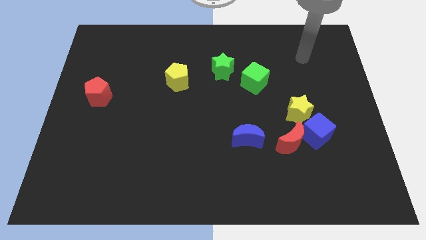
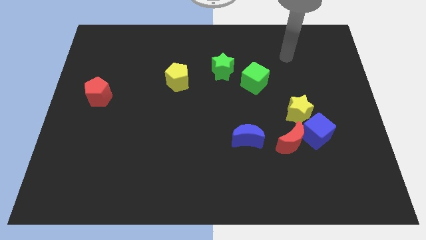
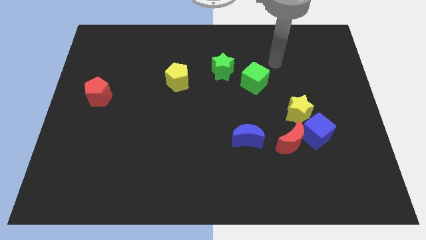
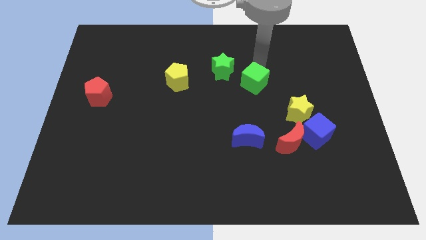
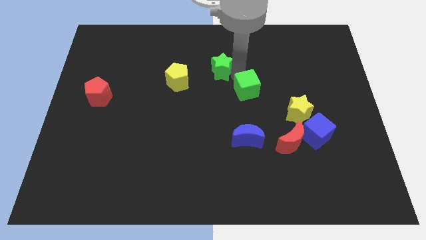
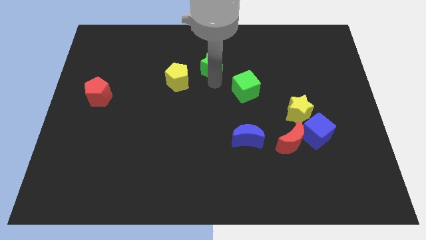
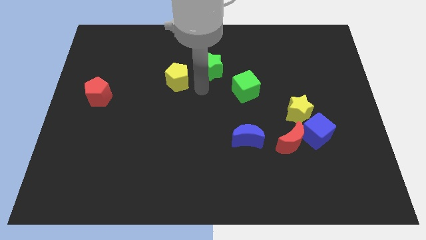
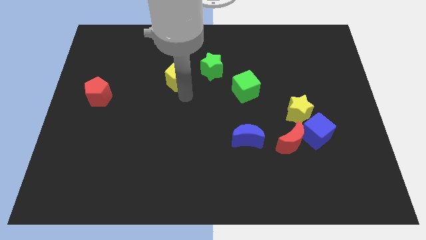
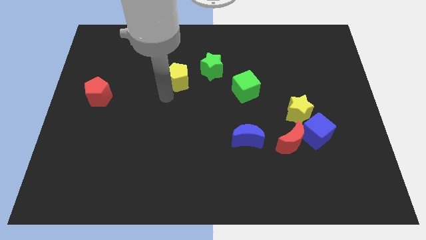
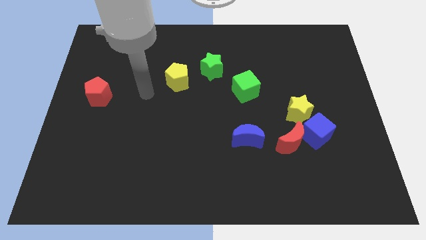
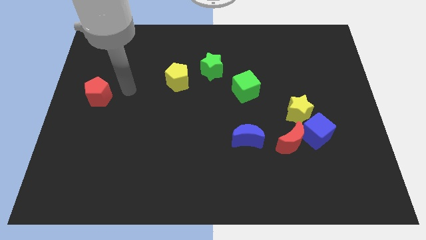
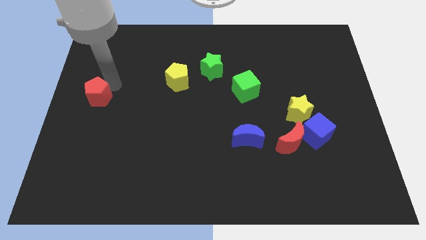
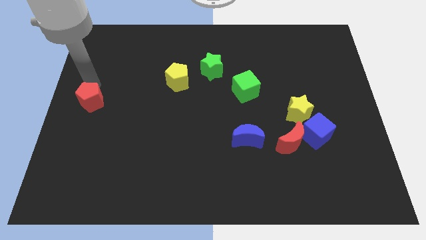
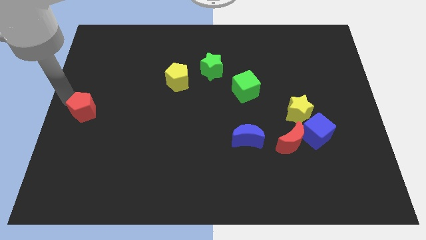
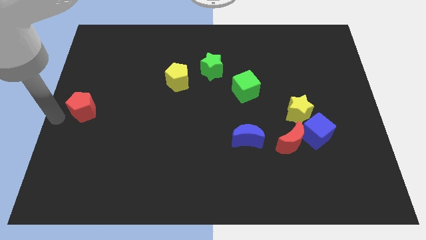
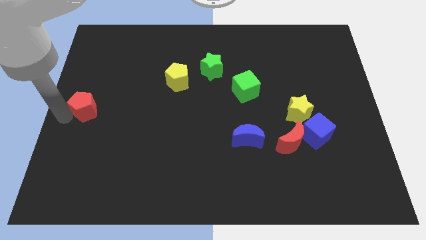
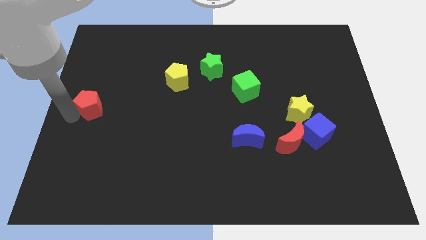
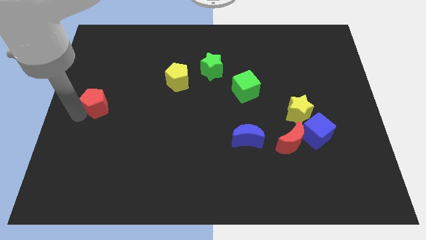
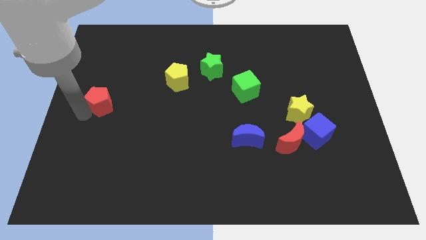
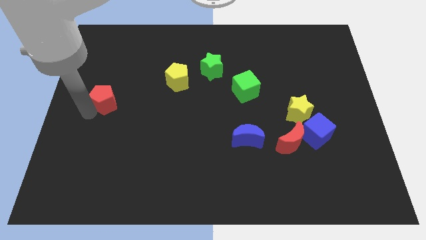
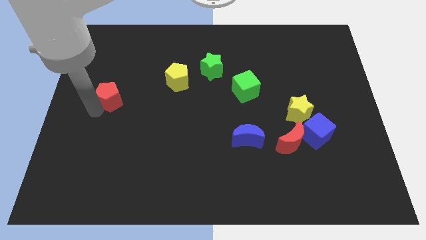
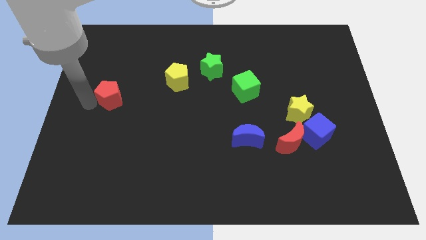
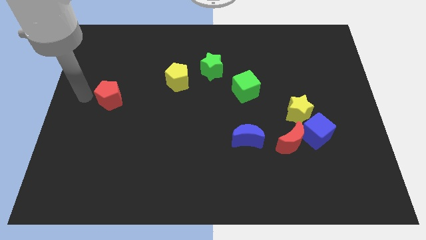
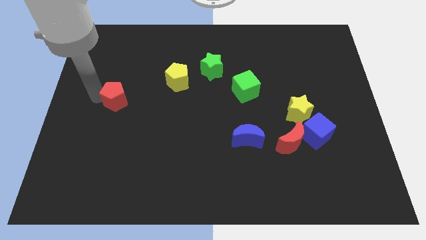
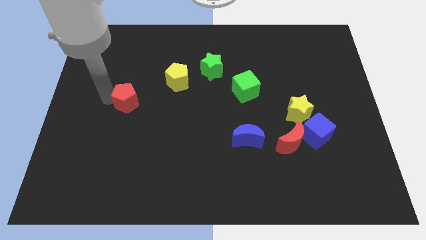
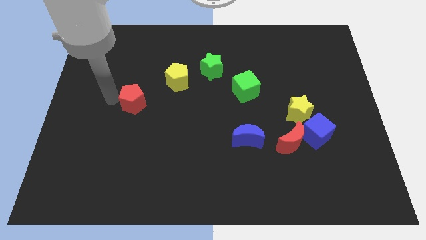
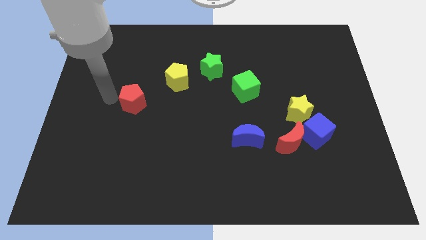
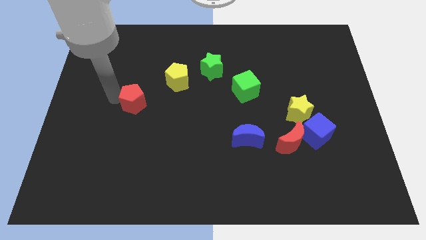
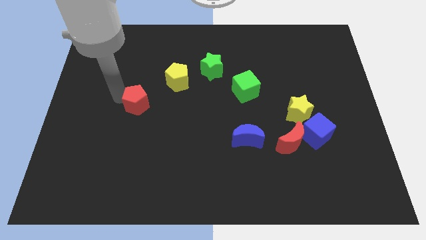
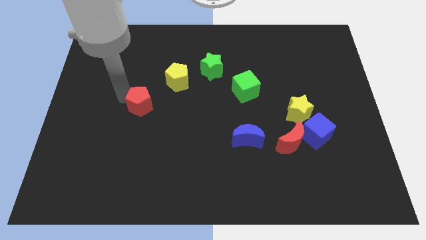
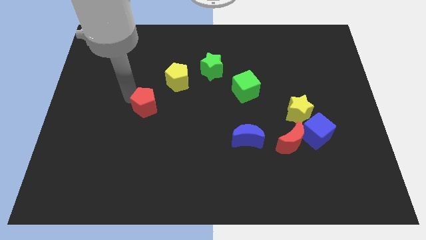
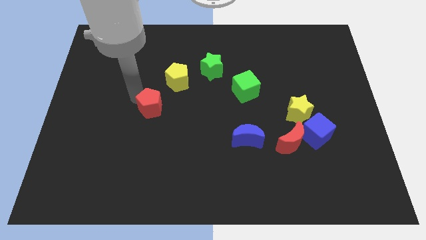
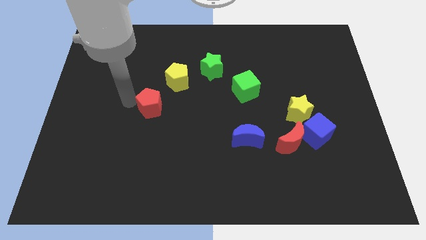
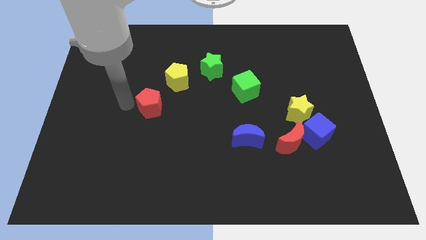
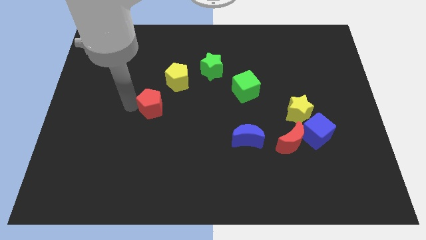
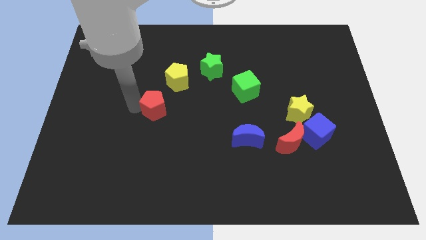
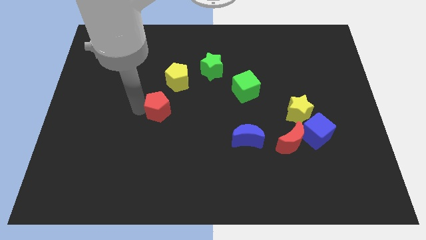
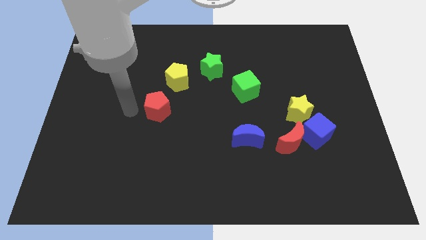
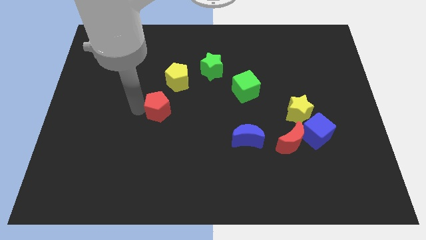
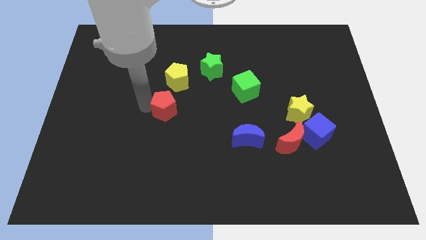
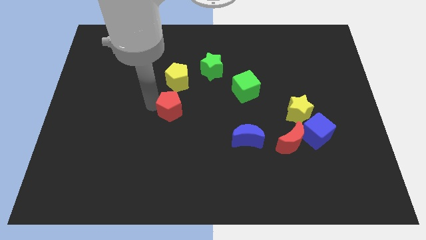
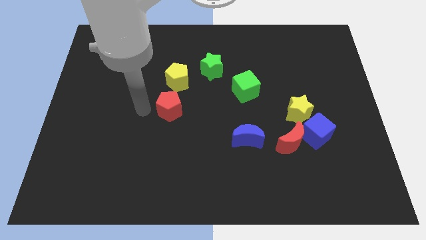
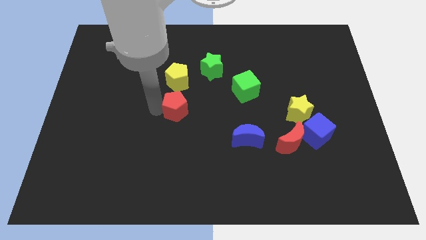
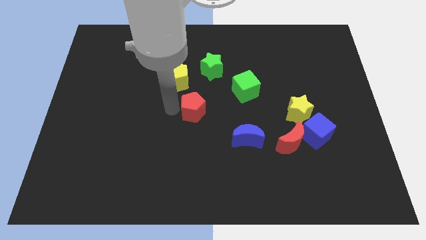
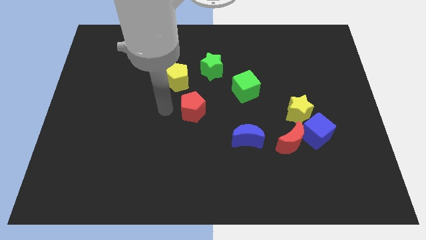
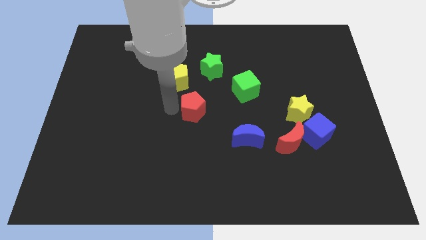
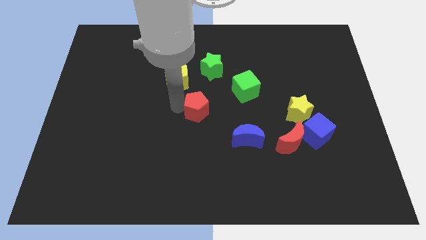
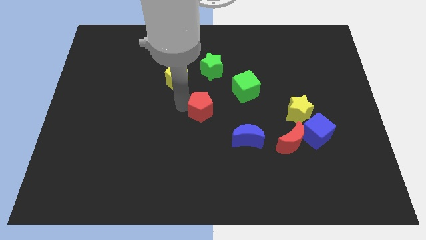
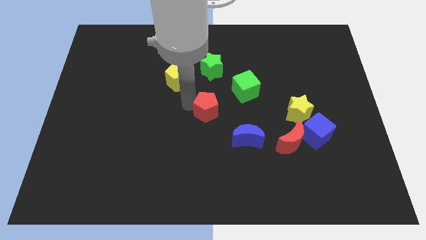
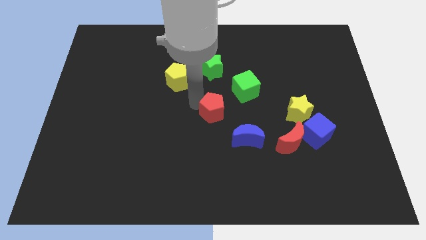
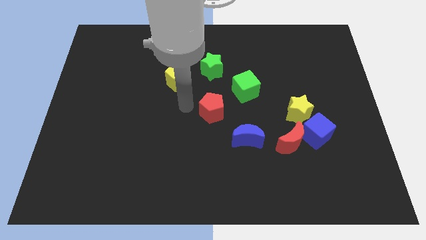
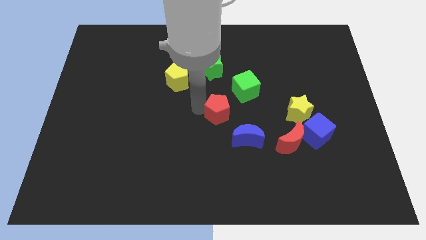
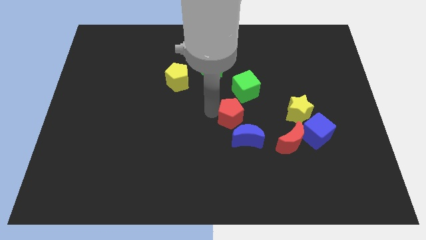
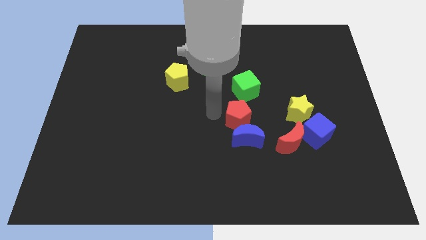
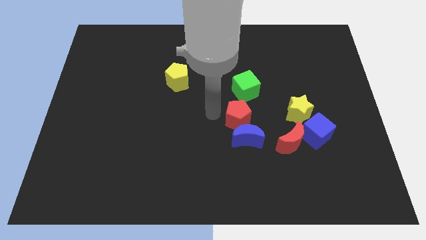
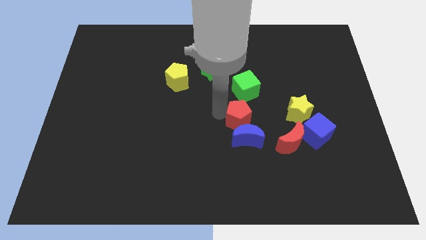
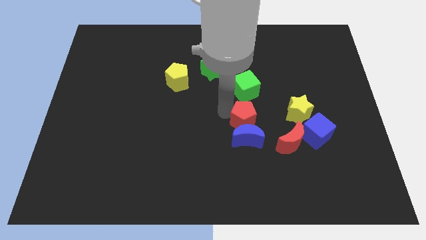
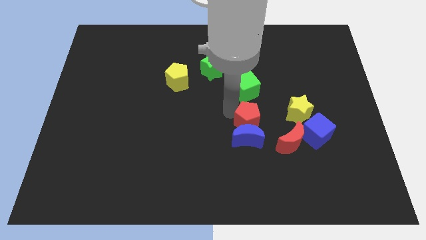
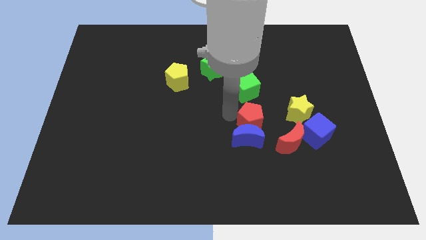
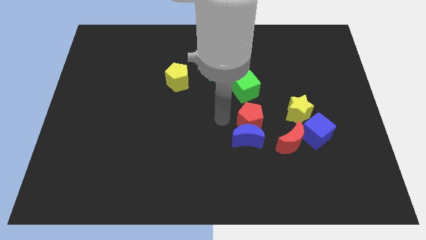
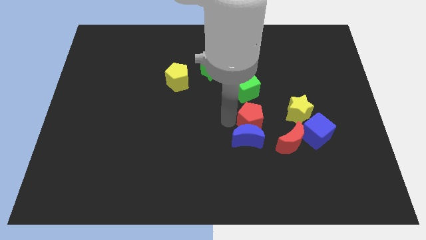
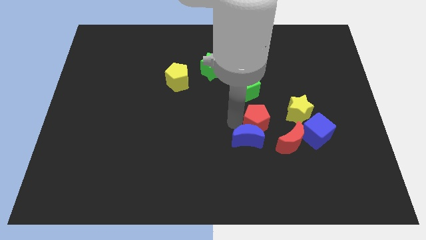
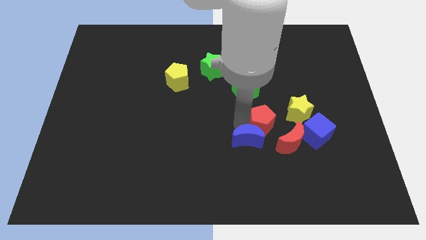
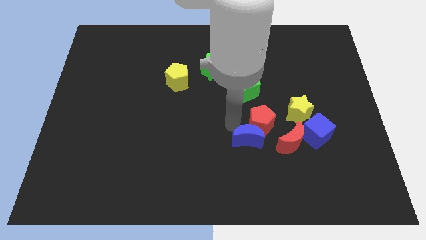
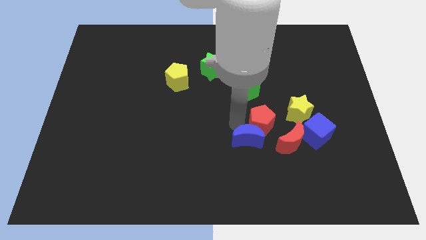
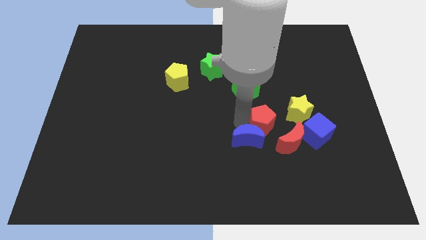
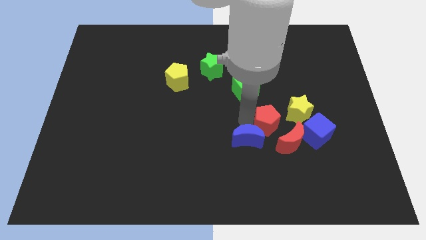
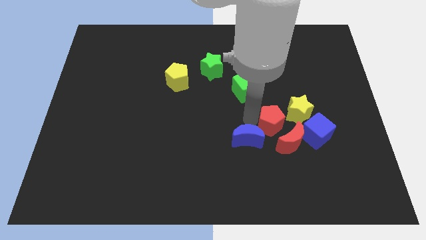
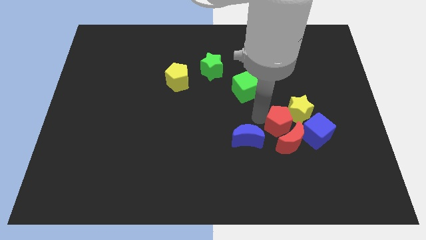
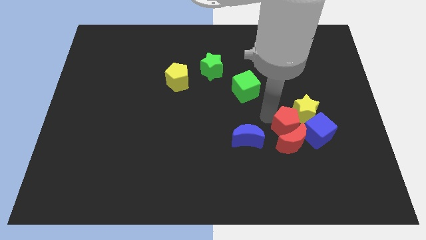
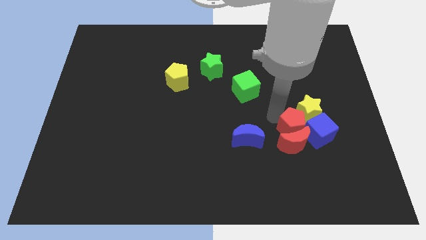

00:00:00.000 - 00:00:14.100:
put the red pentagon to the blue cube
